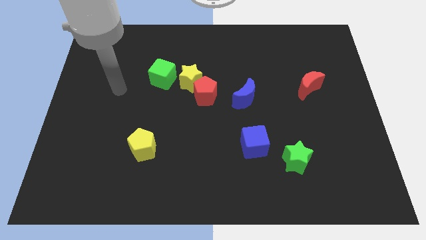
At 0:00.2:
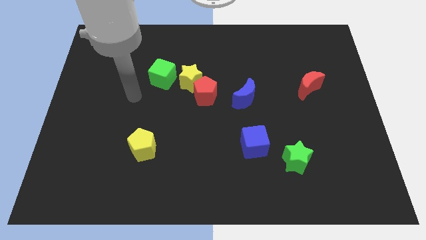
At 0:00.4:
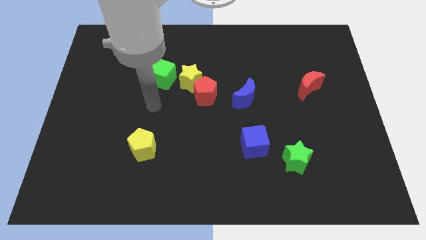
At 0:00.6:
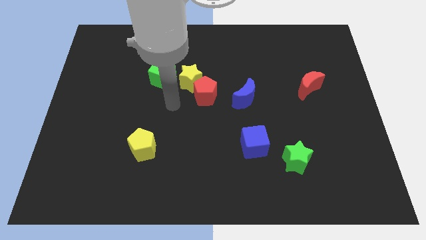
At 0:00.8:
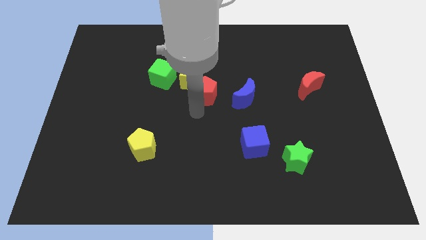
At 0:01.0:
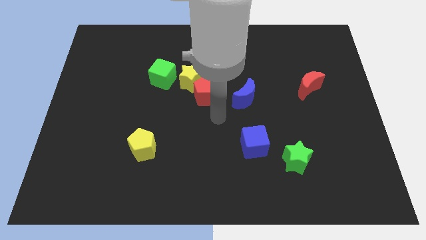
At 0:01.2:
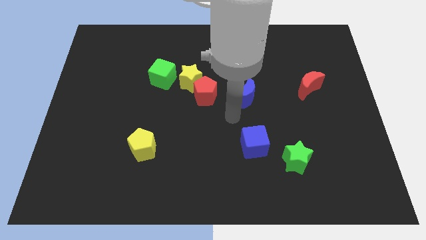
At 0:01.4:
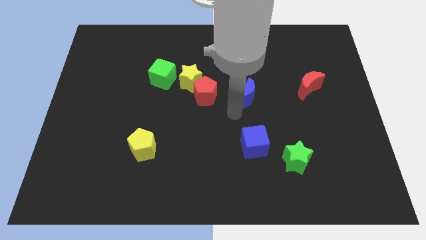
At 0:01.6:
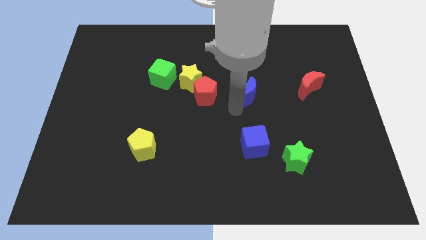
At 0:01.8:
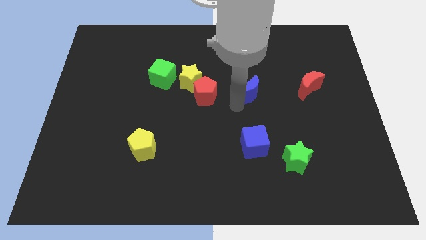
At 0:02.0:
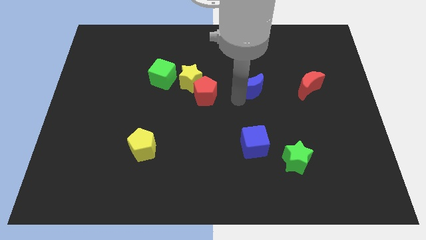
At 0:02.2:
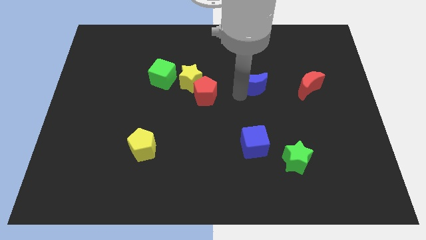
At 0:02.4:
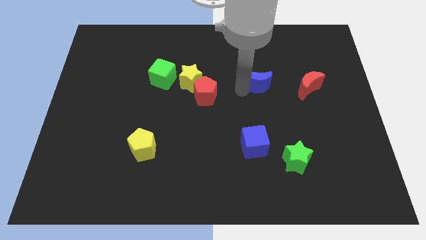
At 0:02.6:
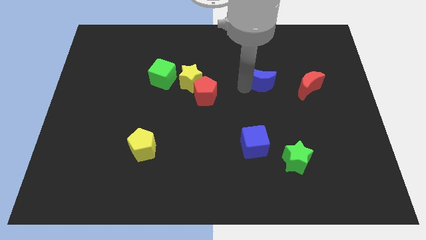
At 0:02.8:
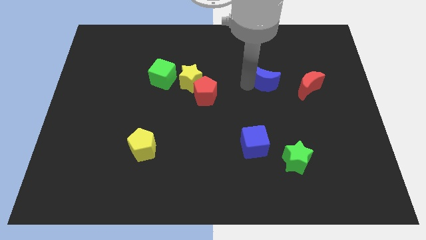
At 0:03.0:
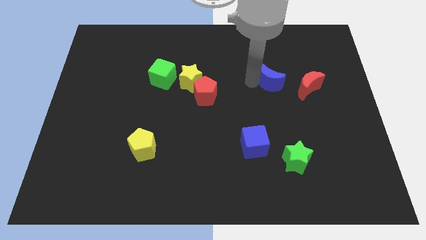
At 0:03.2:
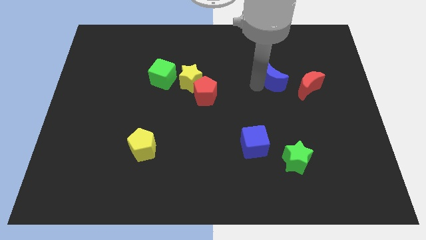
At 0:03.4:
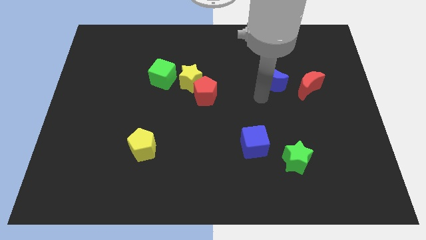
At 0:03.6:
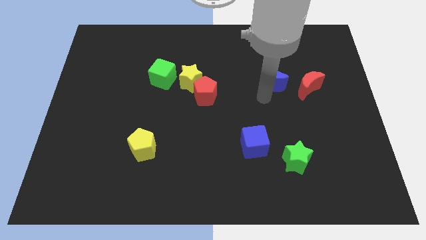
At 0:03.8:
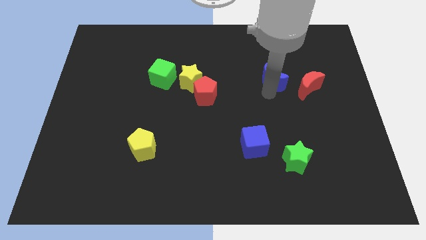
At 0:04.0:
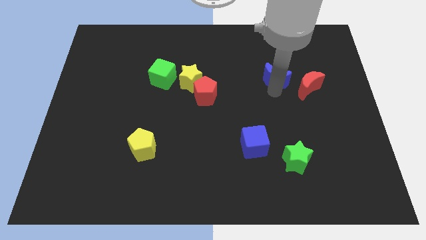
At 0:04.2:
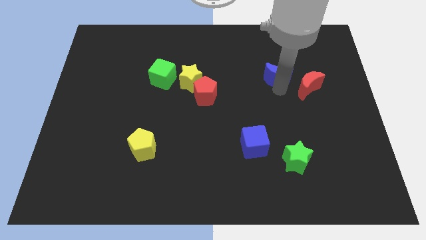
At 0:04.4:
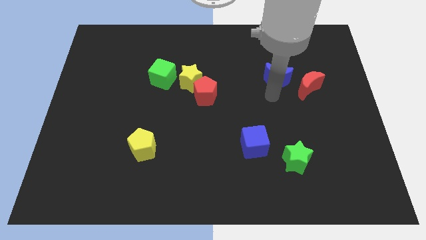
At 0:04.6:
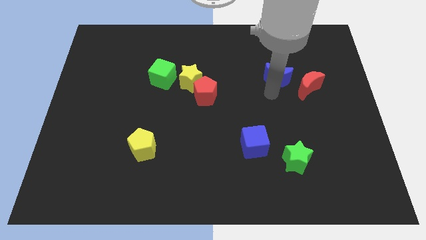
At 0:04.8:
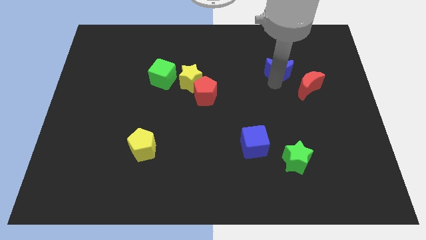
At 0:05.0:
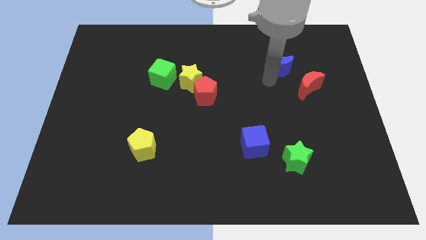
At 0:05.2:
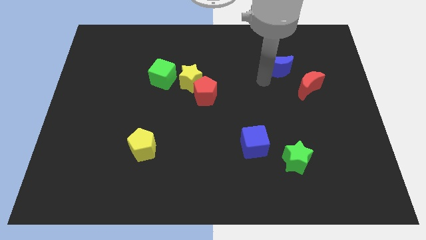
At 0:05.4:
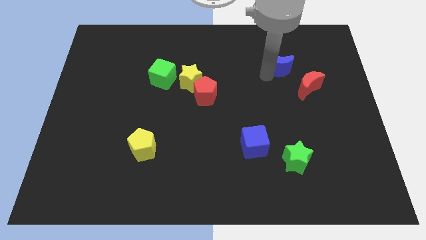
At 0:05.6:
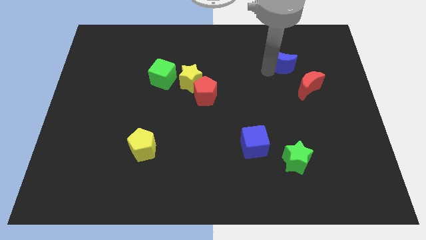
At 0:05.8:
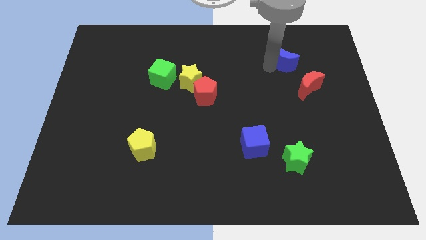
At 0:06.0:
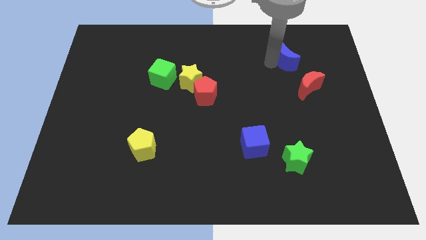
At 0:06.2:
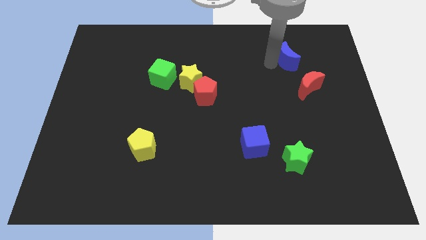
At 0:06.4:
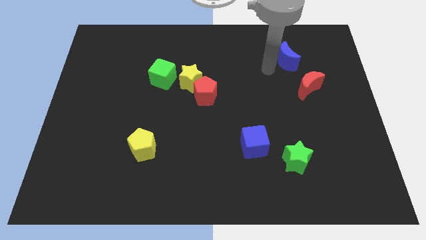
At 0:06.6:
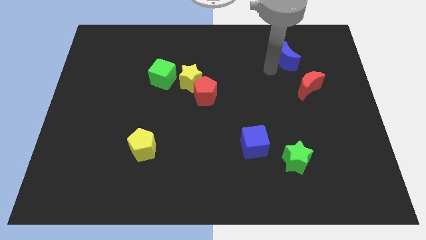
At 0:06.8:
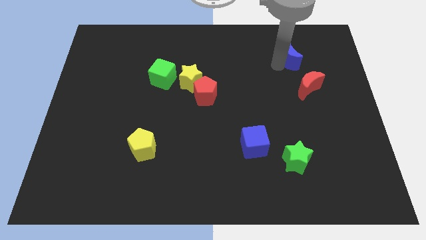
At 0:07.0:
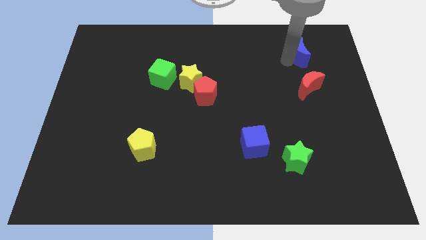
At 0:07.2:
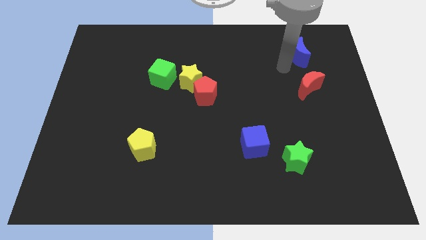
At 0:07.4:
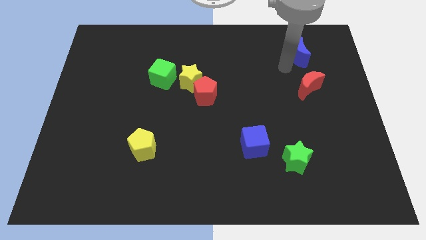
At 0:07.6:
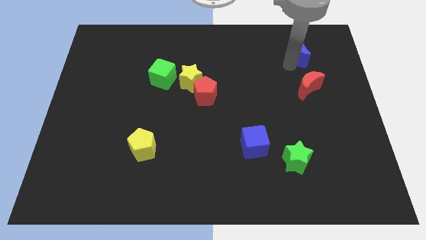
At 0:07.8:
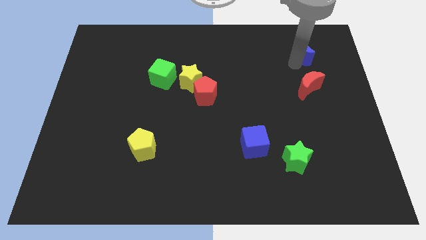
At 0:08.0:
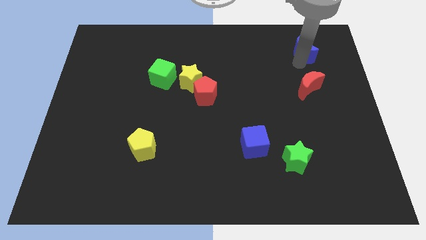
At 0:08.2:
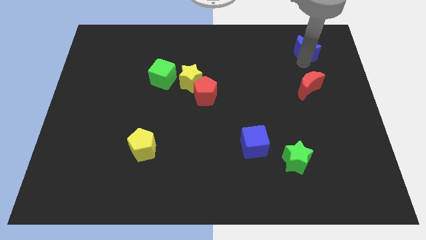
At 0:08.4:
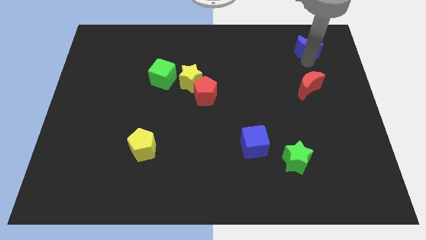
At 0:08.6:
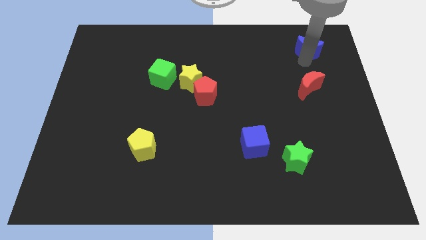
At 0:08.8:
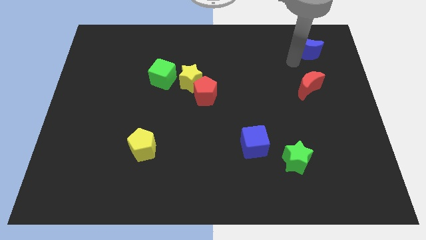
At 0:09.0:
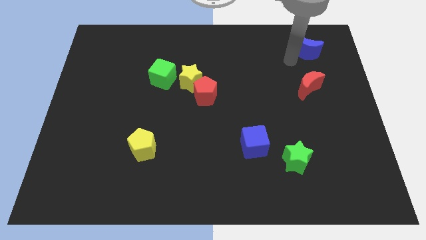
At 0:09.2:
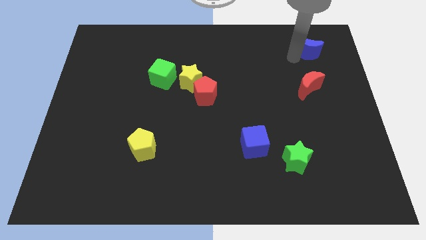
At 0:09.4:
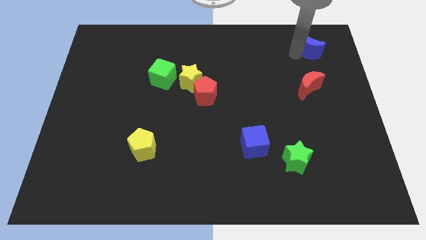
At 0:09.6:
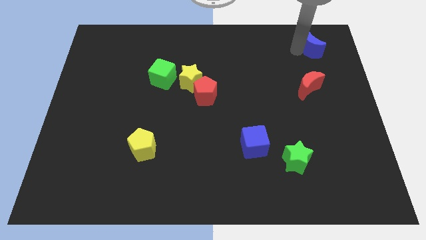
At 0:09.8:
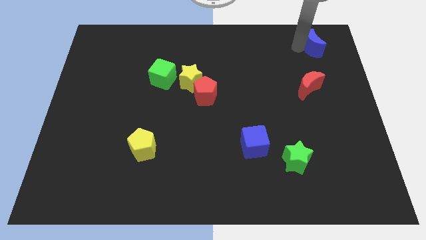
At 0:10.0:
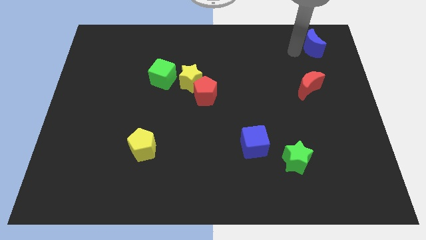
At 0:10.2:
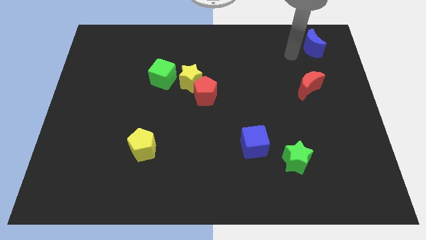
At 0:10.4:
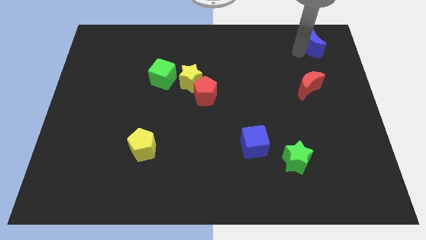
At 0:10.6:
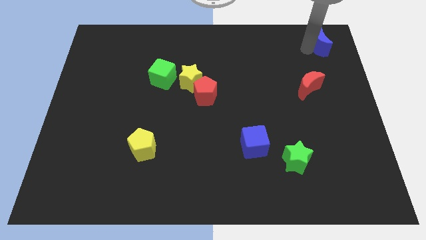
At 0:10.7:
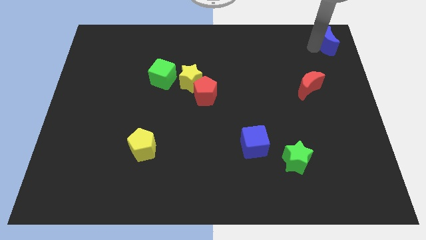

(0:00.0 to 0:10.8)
slide the blue moon to the top right of the board
